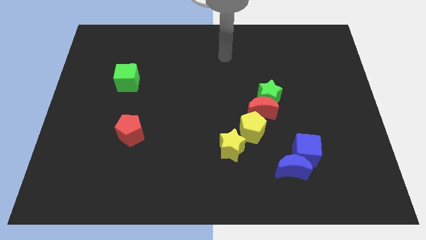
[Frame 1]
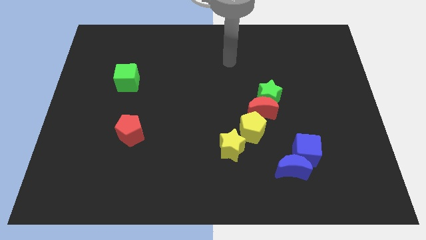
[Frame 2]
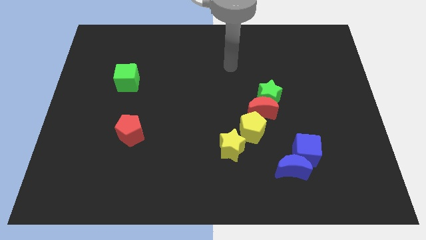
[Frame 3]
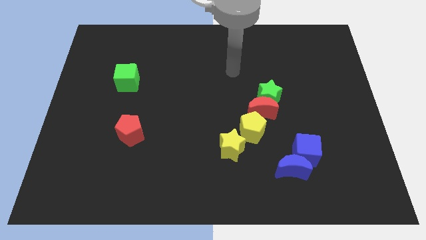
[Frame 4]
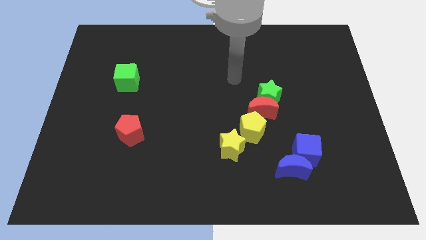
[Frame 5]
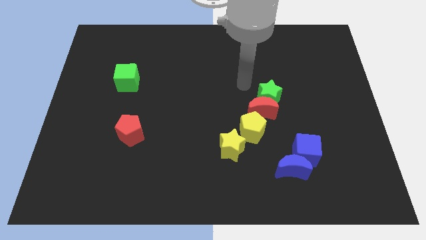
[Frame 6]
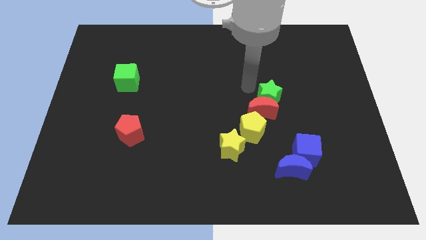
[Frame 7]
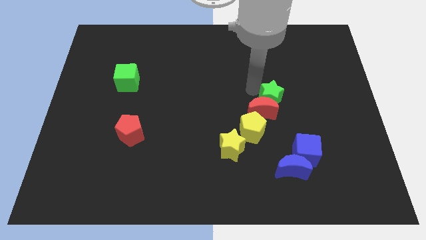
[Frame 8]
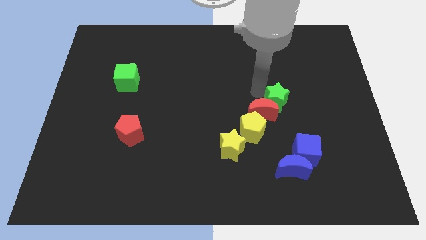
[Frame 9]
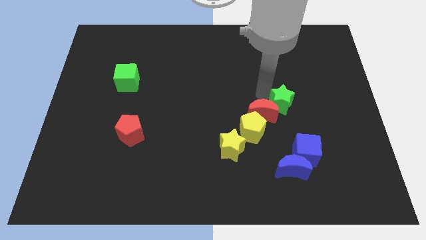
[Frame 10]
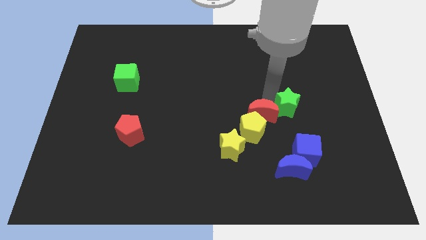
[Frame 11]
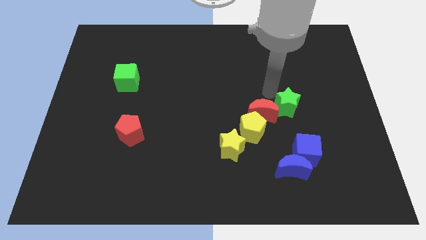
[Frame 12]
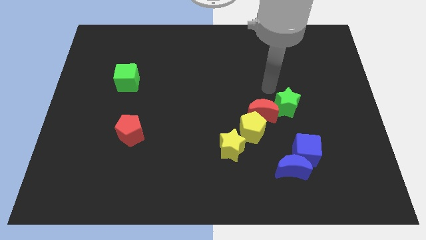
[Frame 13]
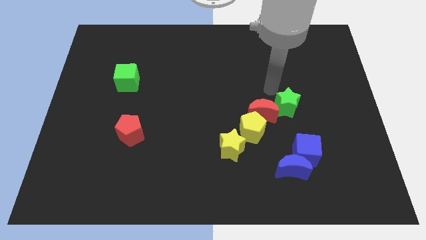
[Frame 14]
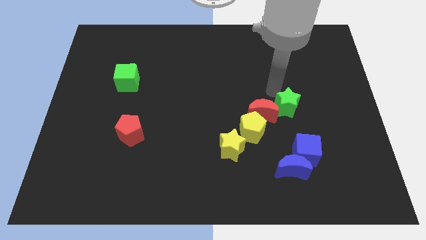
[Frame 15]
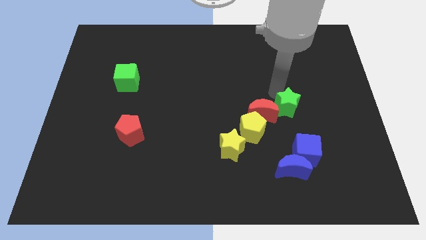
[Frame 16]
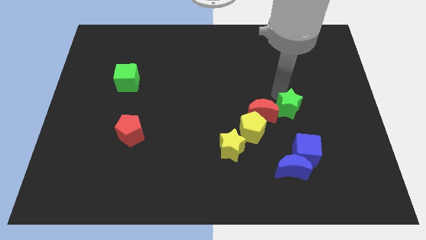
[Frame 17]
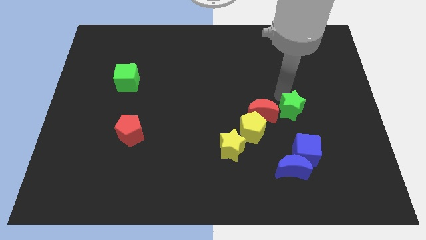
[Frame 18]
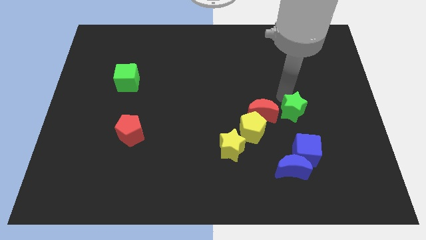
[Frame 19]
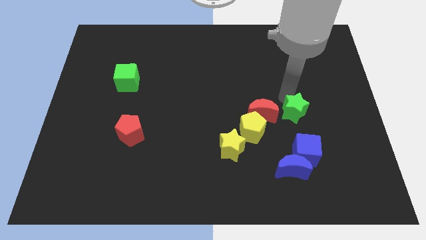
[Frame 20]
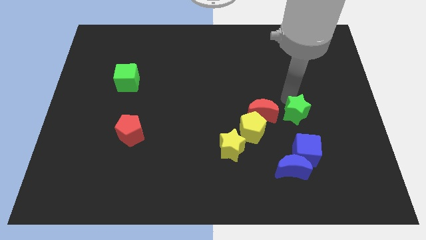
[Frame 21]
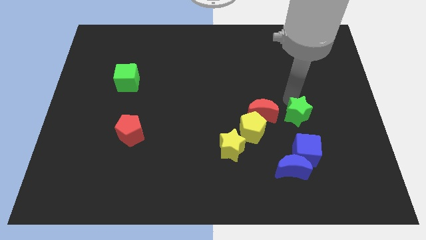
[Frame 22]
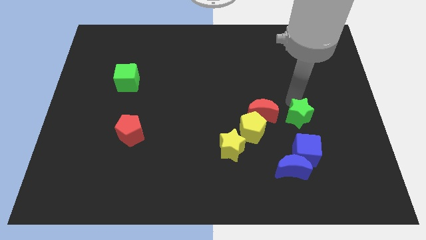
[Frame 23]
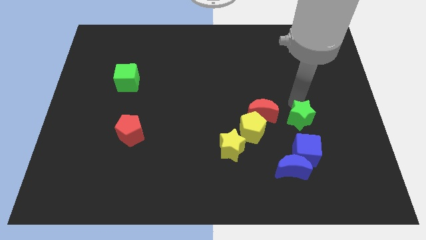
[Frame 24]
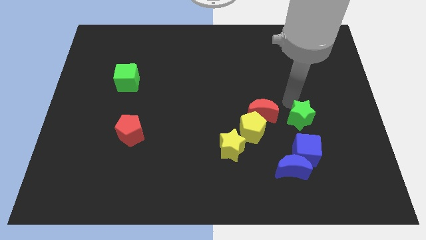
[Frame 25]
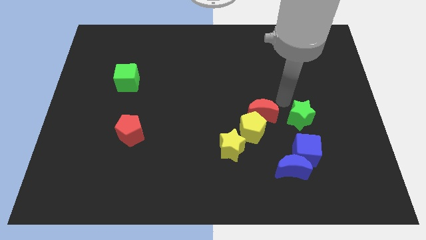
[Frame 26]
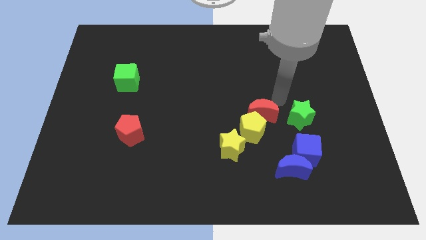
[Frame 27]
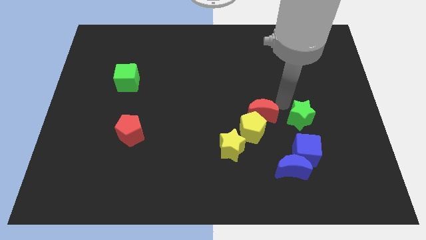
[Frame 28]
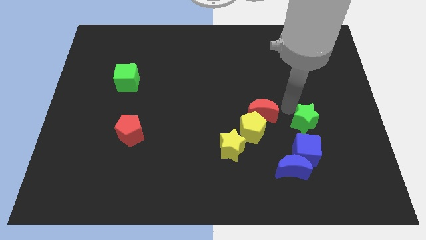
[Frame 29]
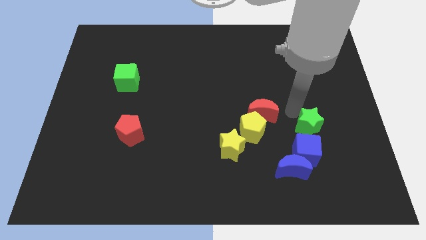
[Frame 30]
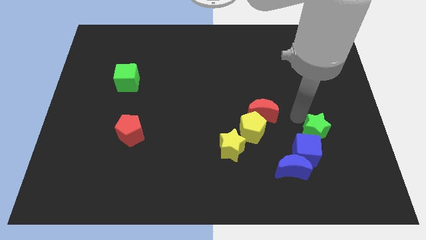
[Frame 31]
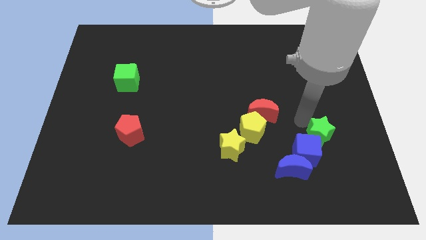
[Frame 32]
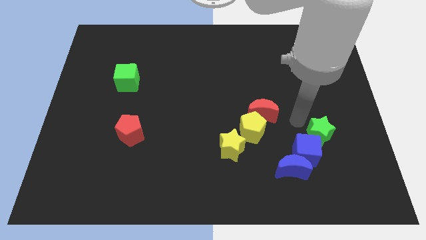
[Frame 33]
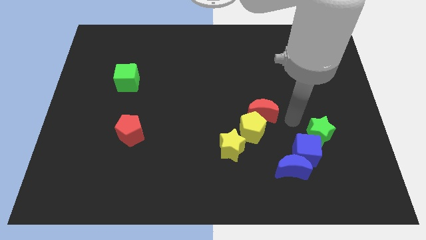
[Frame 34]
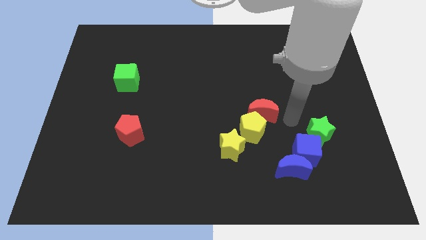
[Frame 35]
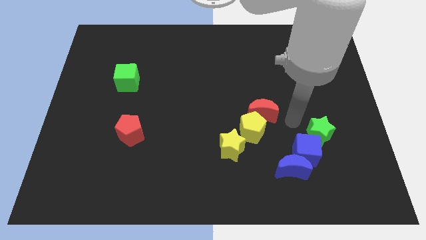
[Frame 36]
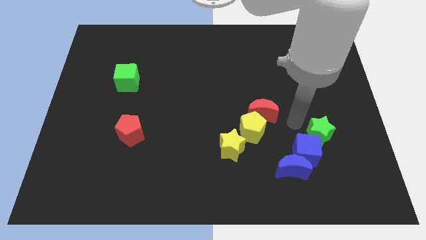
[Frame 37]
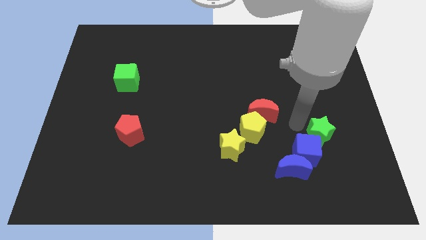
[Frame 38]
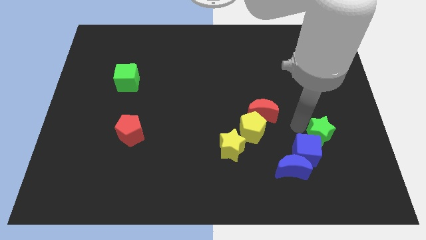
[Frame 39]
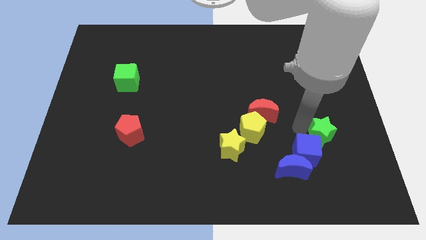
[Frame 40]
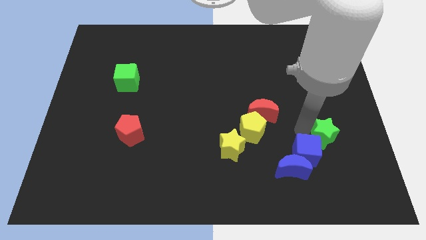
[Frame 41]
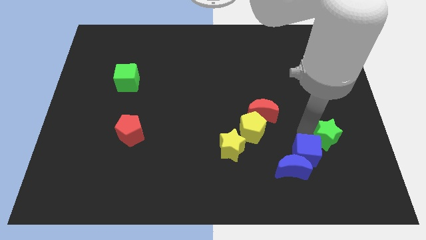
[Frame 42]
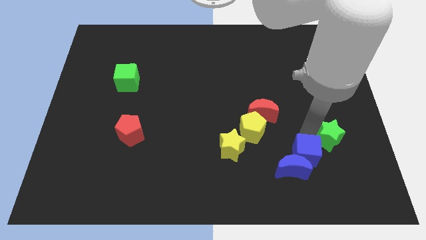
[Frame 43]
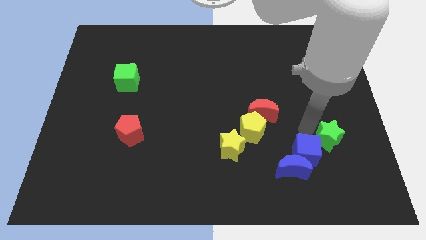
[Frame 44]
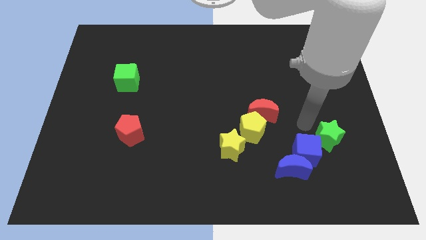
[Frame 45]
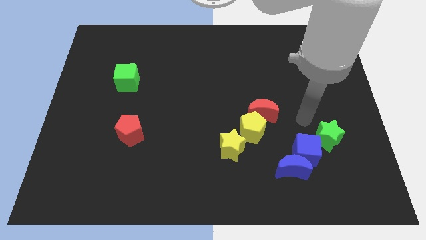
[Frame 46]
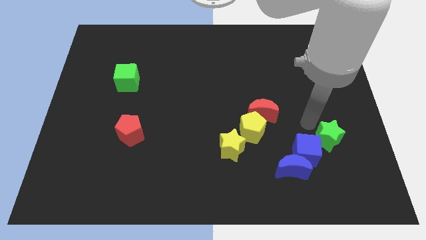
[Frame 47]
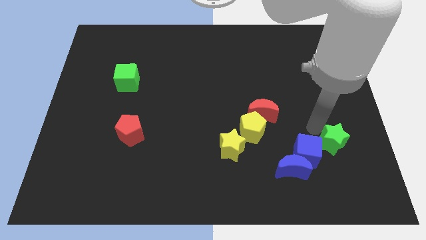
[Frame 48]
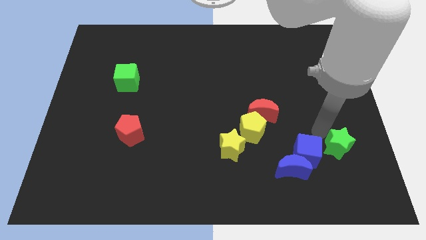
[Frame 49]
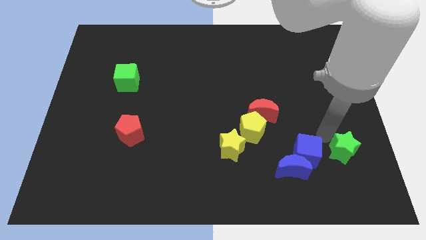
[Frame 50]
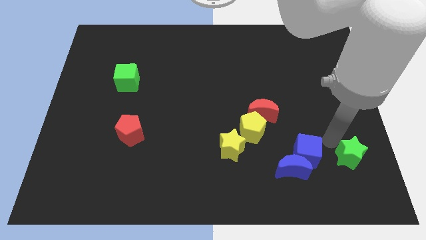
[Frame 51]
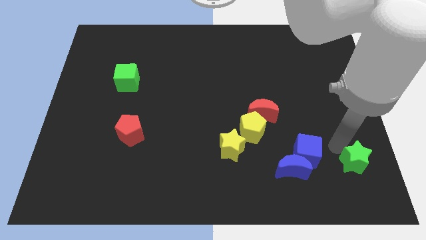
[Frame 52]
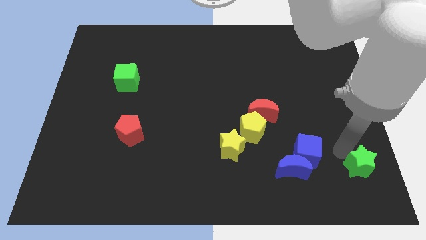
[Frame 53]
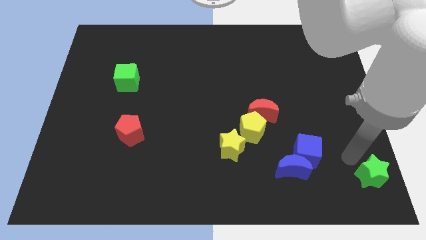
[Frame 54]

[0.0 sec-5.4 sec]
put the green star to the bottom right of the board

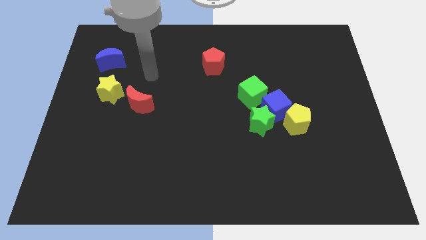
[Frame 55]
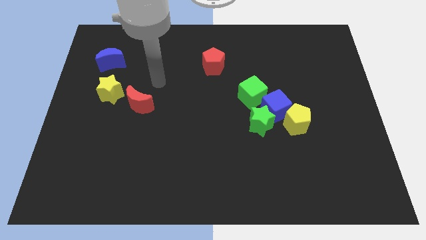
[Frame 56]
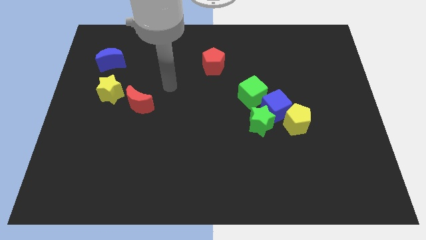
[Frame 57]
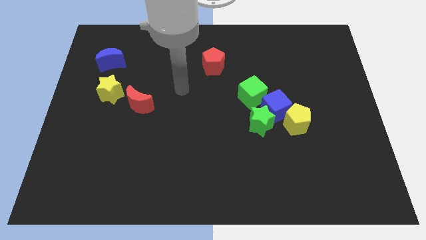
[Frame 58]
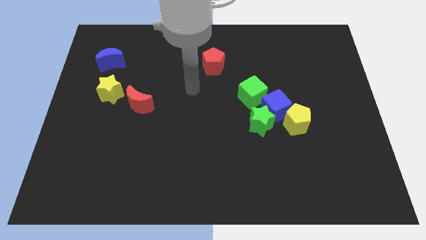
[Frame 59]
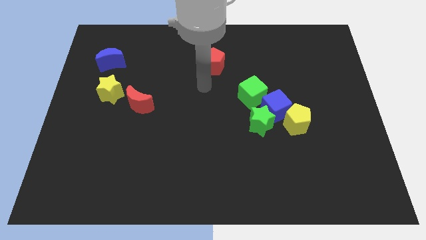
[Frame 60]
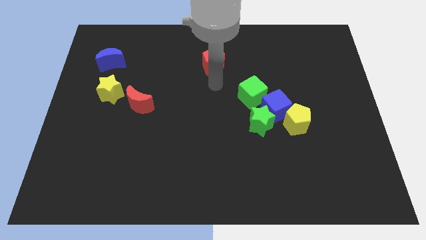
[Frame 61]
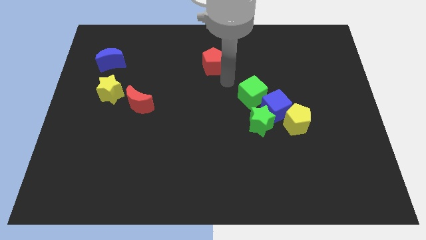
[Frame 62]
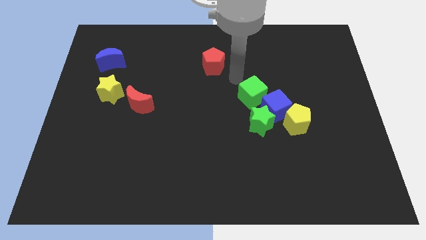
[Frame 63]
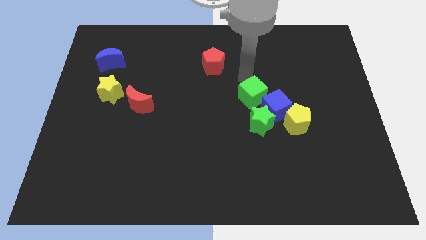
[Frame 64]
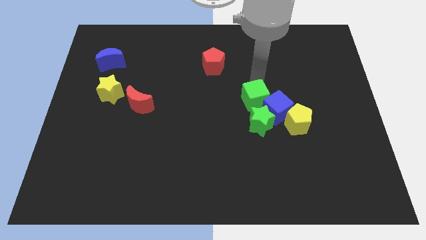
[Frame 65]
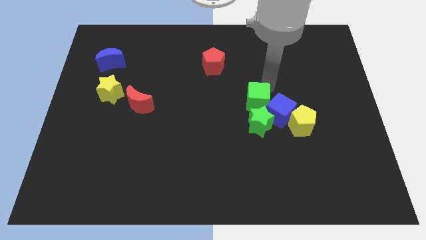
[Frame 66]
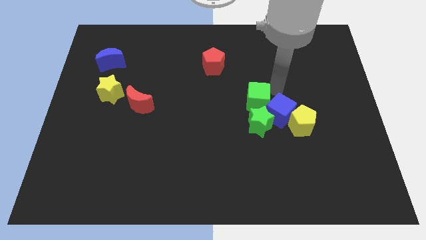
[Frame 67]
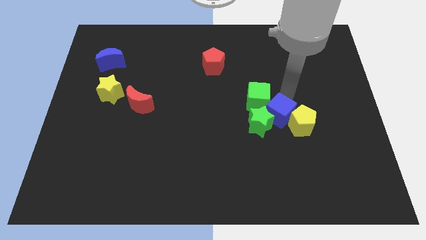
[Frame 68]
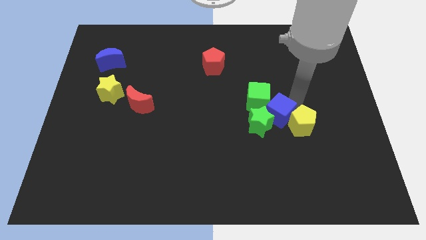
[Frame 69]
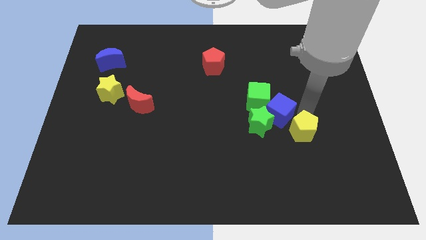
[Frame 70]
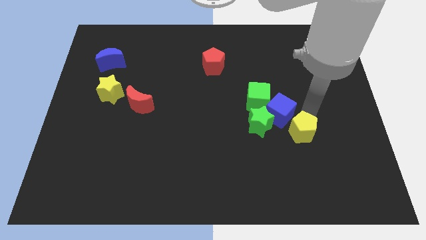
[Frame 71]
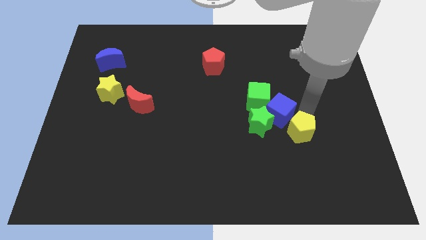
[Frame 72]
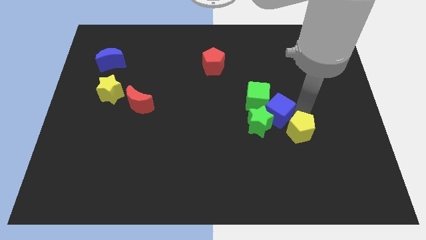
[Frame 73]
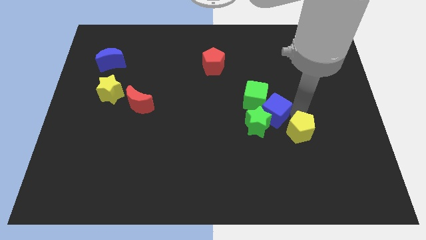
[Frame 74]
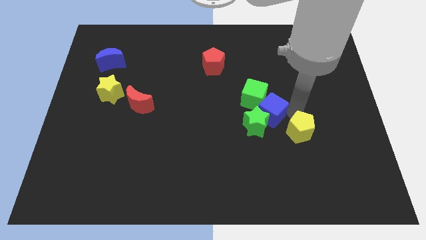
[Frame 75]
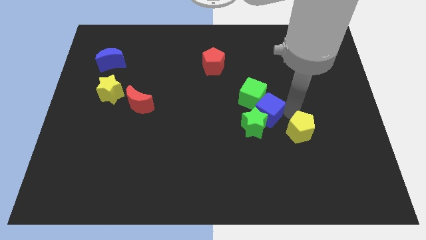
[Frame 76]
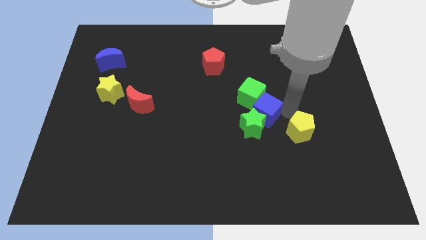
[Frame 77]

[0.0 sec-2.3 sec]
move the blue cube to the center of the board
